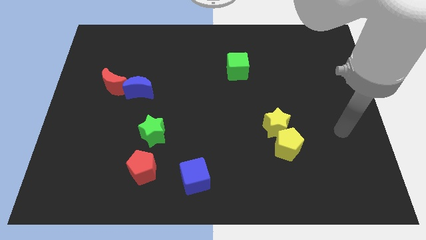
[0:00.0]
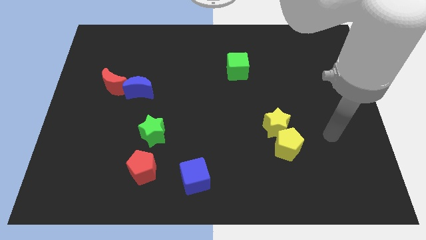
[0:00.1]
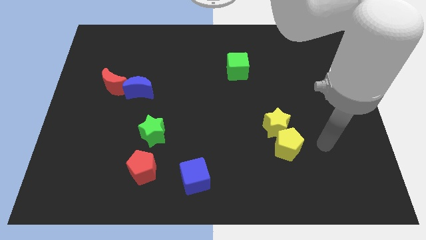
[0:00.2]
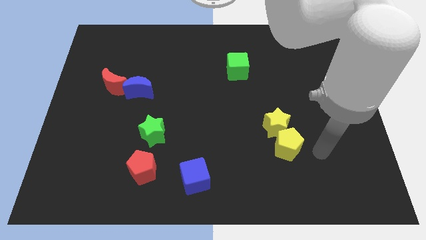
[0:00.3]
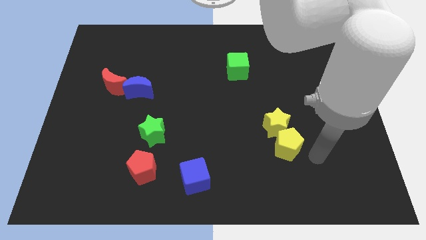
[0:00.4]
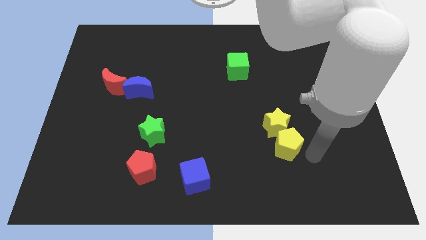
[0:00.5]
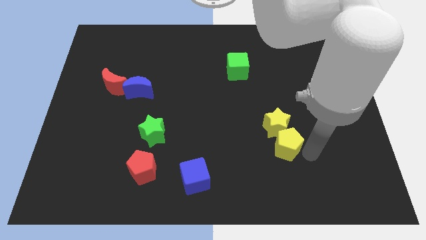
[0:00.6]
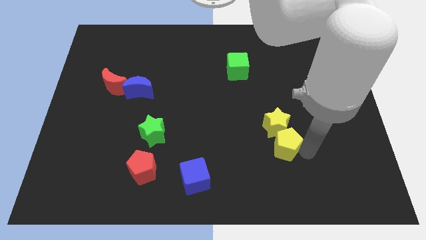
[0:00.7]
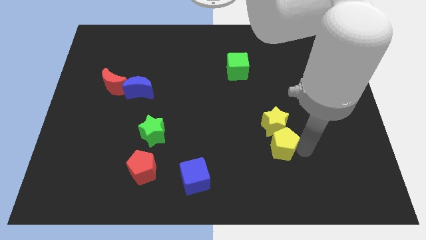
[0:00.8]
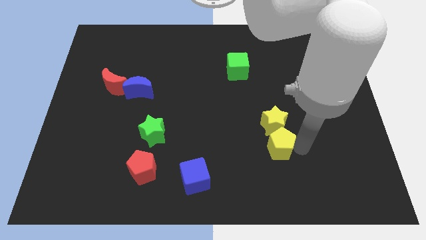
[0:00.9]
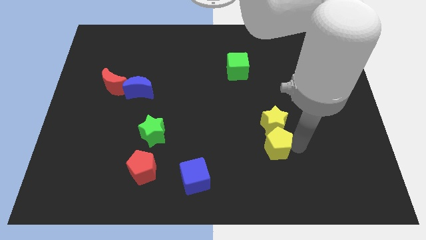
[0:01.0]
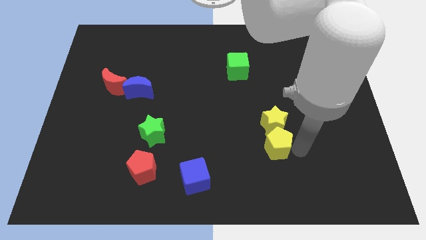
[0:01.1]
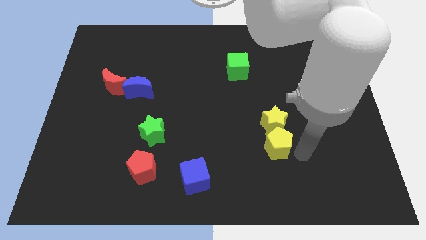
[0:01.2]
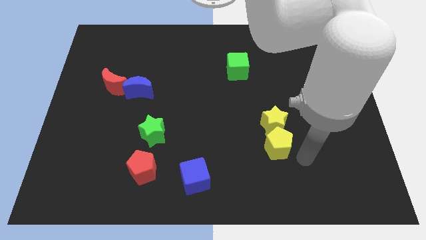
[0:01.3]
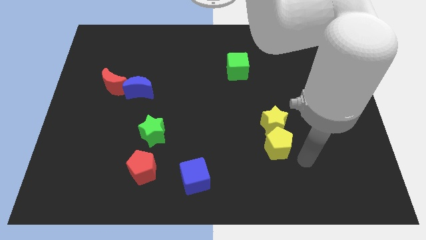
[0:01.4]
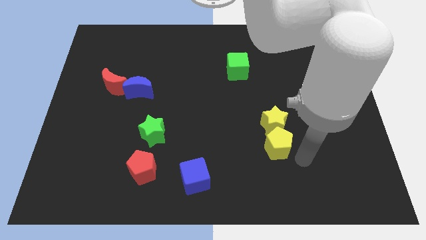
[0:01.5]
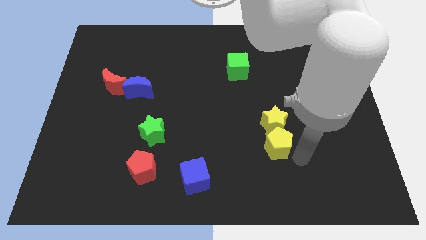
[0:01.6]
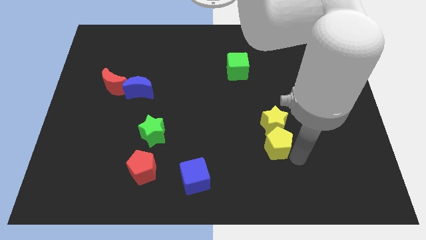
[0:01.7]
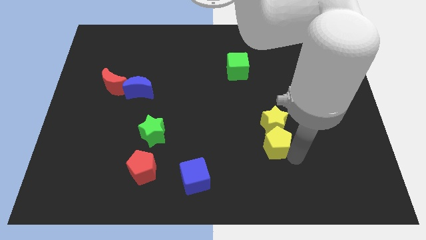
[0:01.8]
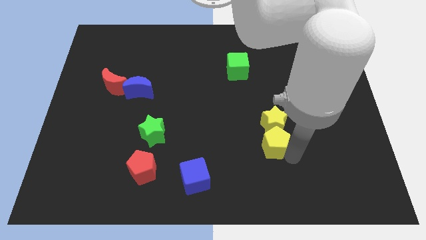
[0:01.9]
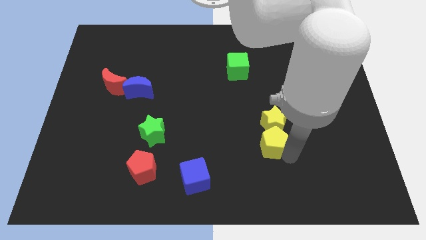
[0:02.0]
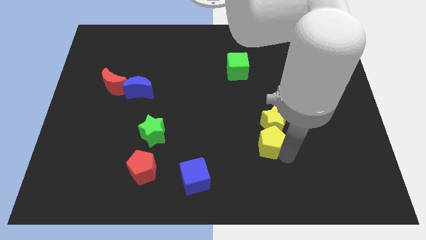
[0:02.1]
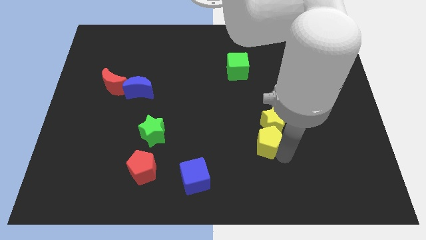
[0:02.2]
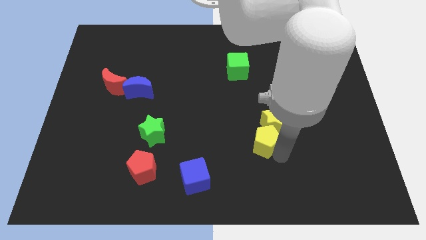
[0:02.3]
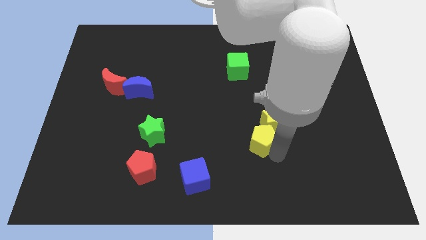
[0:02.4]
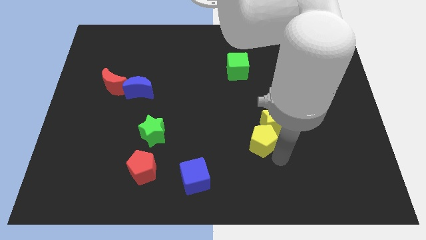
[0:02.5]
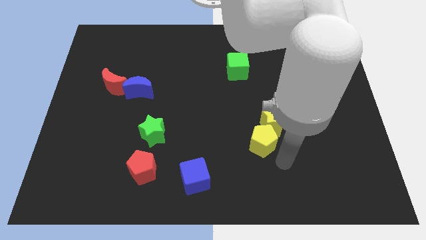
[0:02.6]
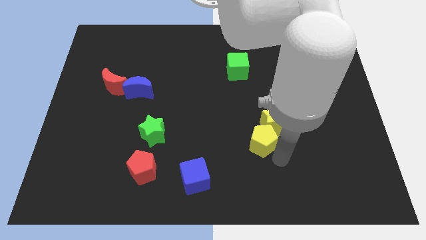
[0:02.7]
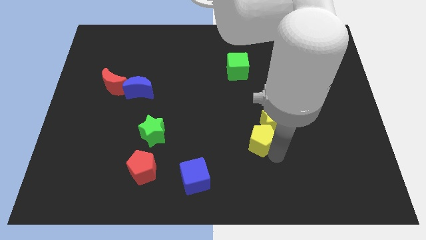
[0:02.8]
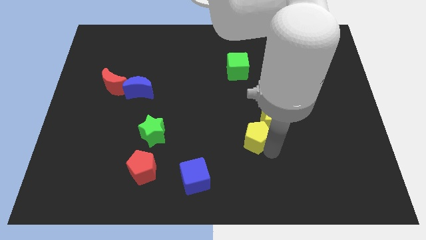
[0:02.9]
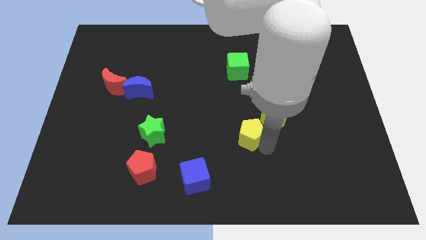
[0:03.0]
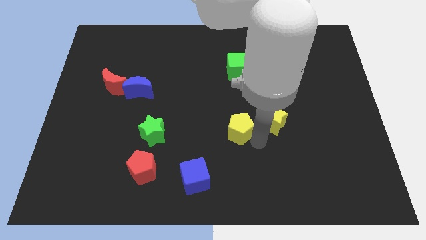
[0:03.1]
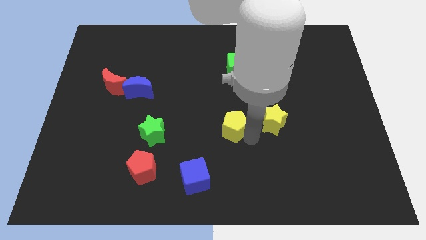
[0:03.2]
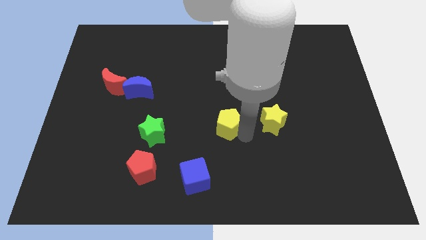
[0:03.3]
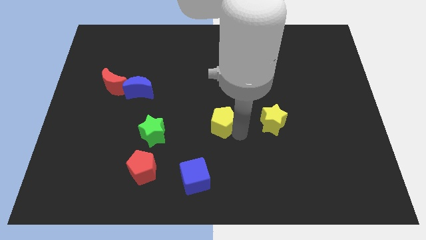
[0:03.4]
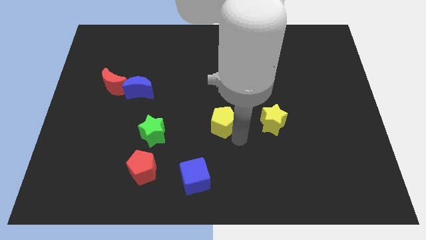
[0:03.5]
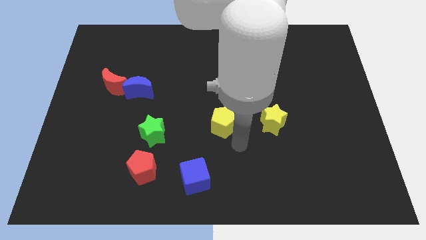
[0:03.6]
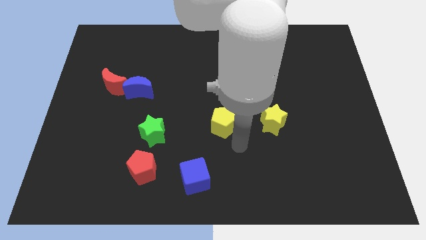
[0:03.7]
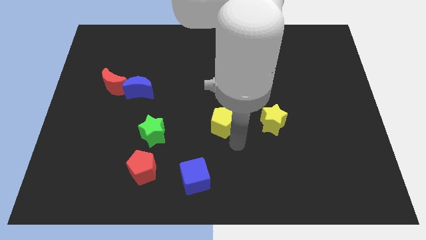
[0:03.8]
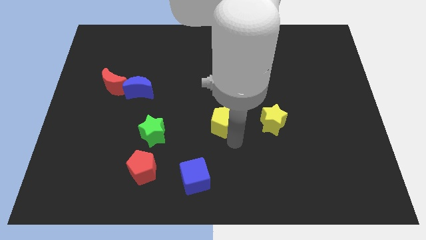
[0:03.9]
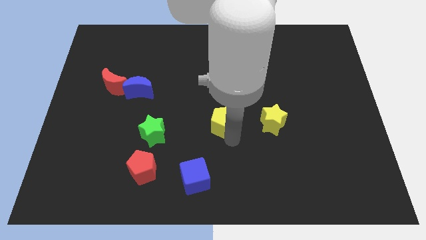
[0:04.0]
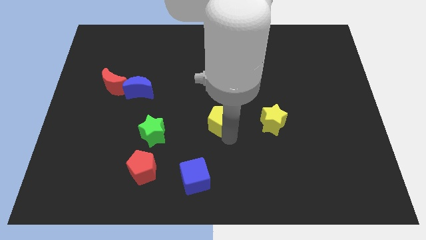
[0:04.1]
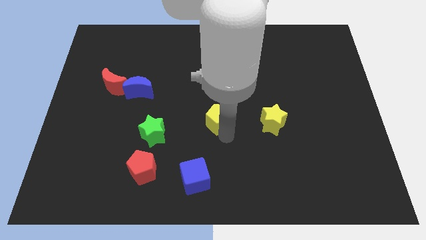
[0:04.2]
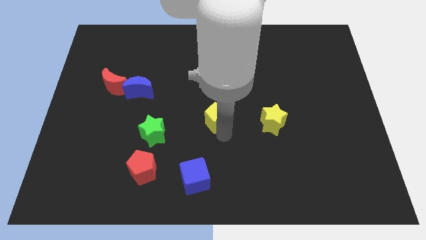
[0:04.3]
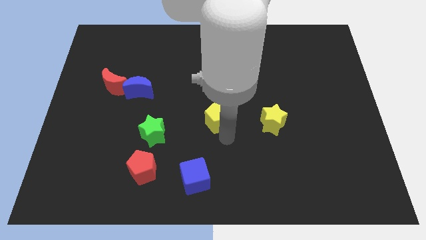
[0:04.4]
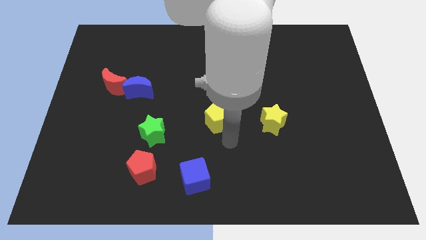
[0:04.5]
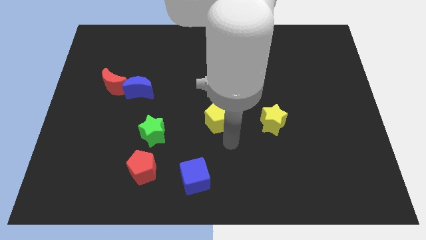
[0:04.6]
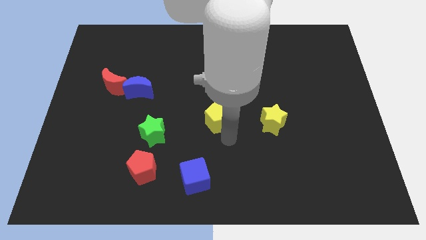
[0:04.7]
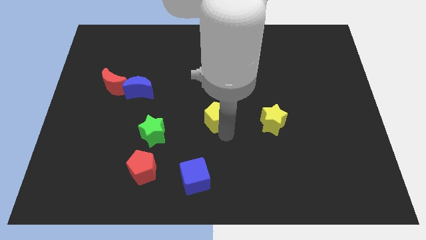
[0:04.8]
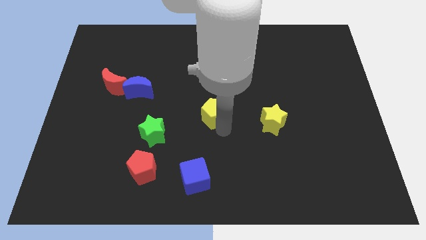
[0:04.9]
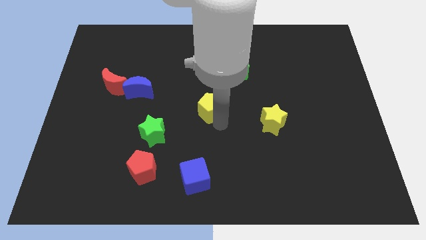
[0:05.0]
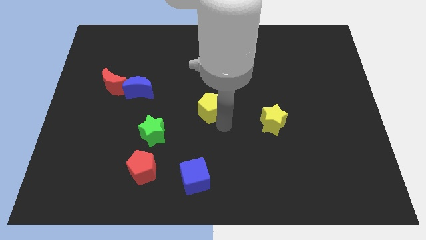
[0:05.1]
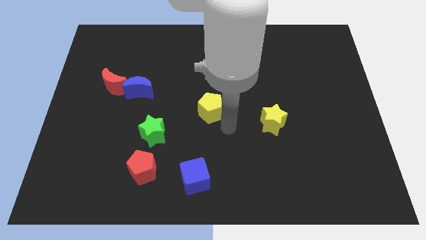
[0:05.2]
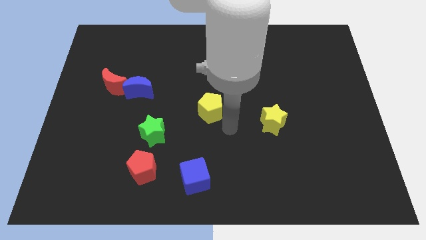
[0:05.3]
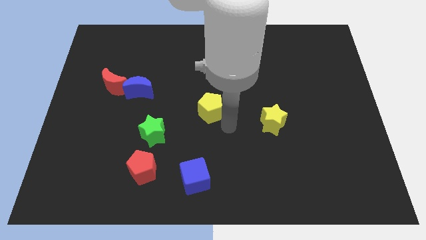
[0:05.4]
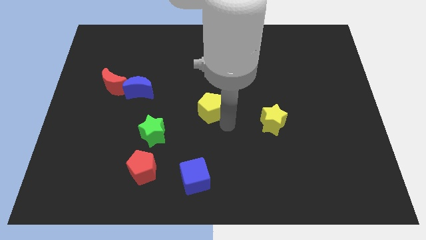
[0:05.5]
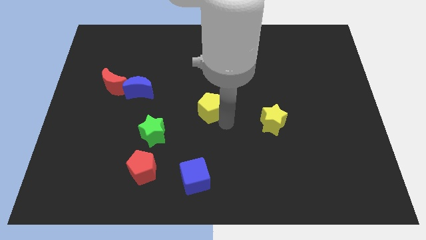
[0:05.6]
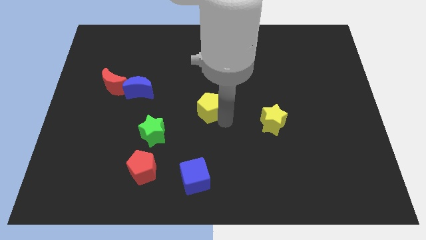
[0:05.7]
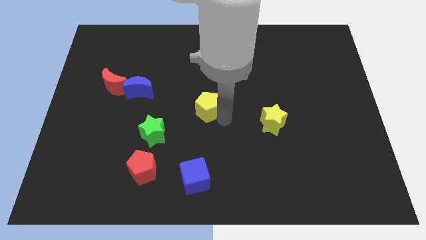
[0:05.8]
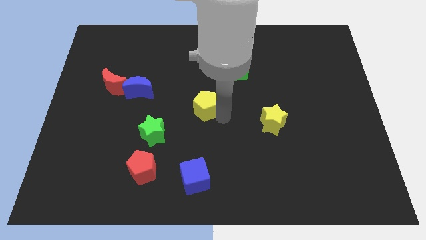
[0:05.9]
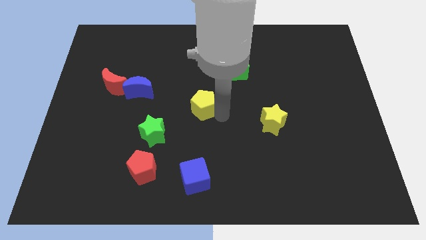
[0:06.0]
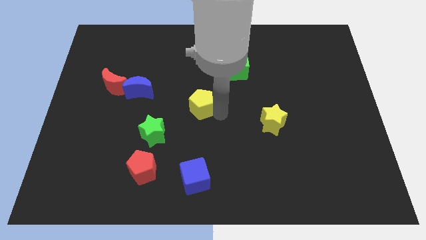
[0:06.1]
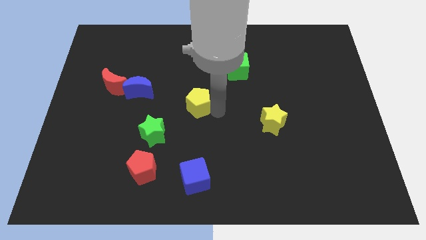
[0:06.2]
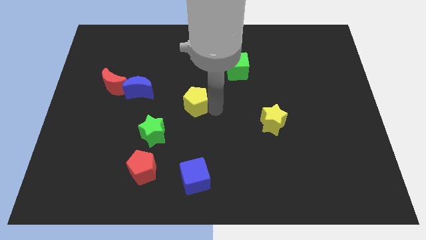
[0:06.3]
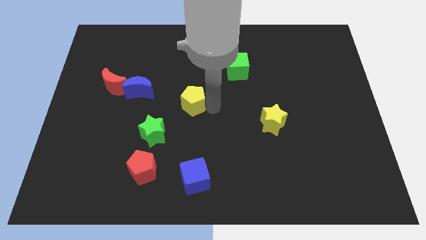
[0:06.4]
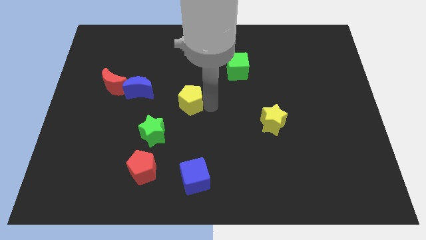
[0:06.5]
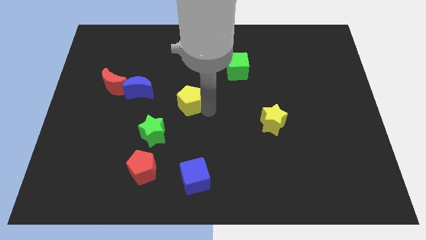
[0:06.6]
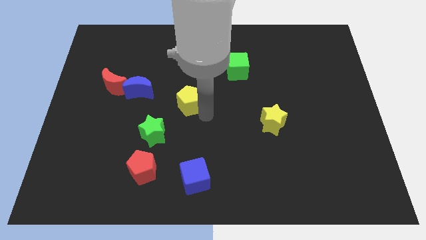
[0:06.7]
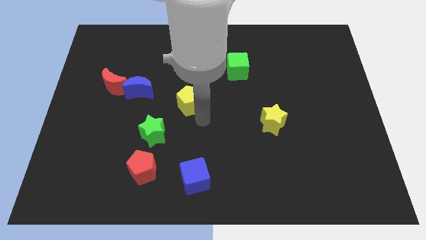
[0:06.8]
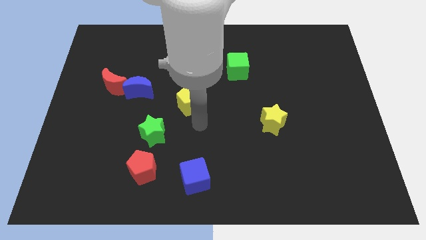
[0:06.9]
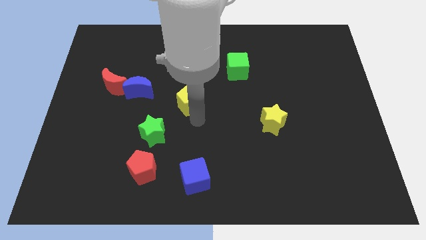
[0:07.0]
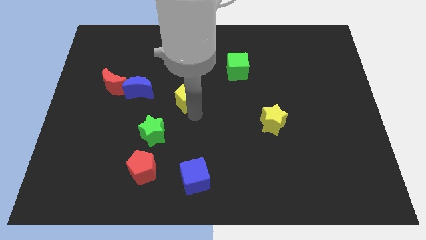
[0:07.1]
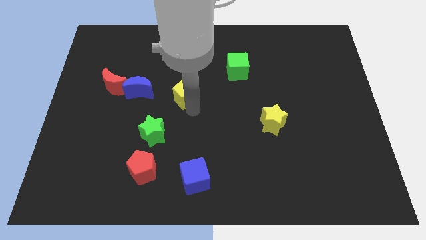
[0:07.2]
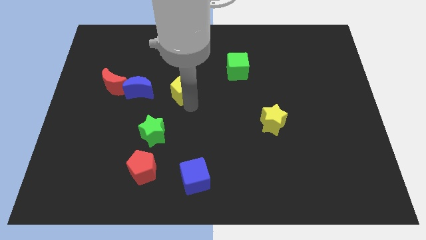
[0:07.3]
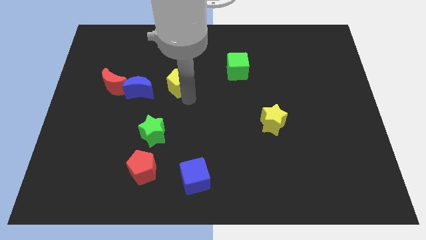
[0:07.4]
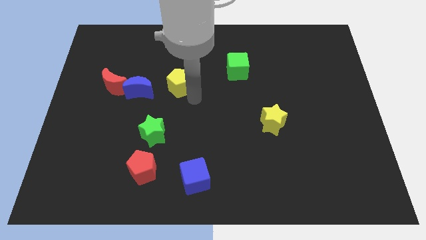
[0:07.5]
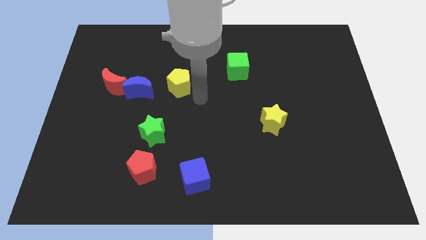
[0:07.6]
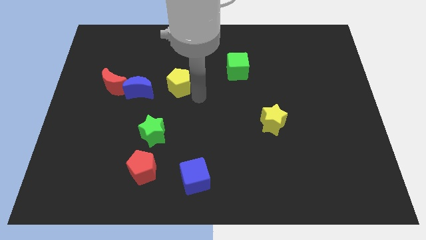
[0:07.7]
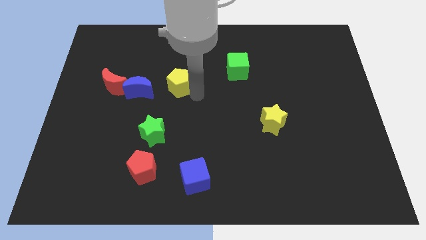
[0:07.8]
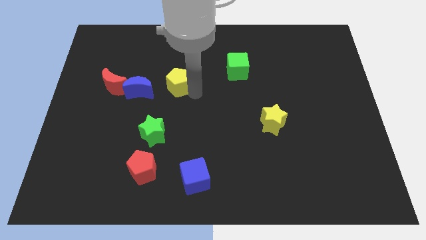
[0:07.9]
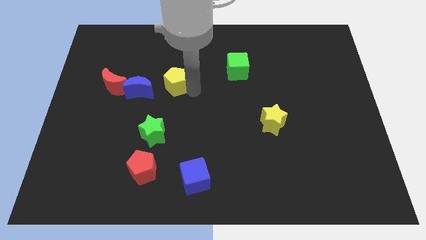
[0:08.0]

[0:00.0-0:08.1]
push the yellow pentagon to the top right side of the blue moon
